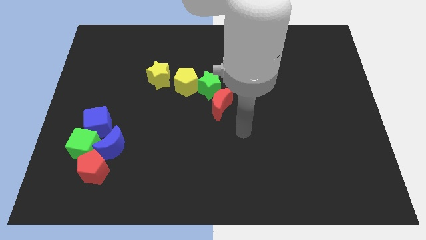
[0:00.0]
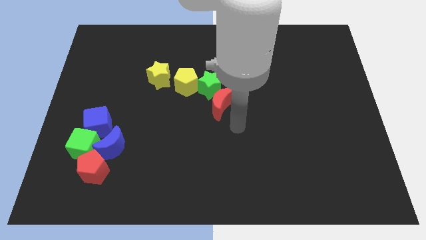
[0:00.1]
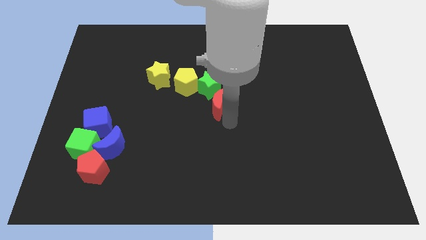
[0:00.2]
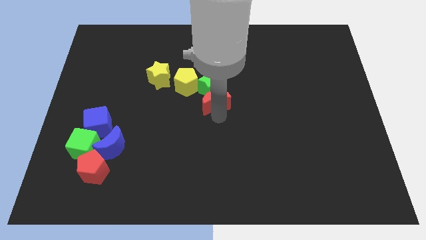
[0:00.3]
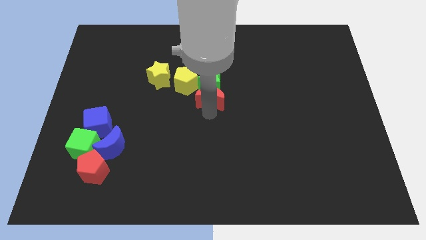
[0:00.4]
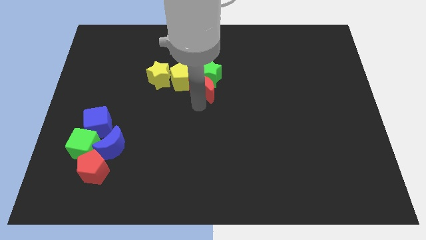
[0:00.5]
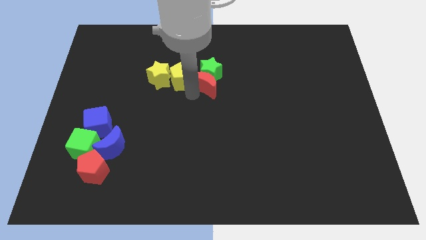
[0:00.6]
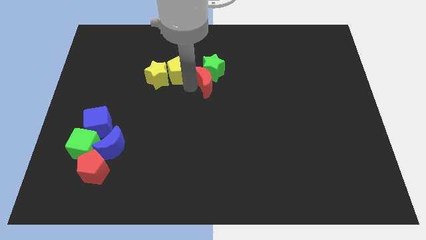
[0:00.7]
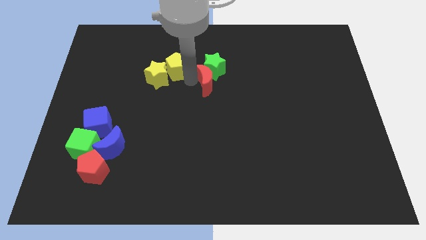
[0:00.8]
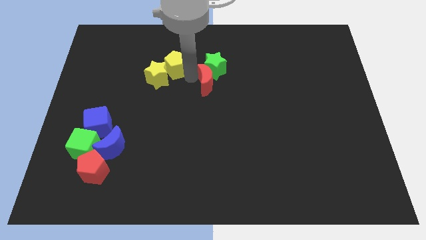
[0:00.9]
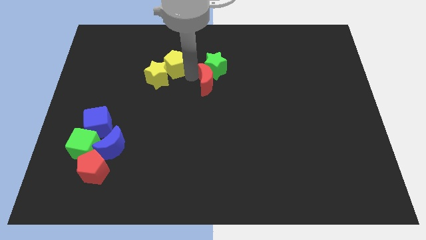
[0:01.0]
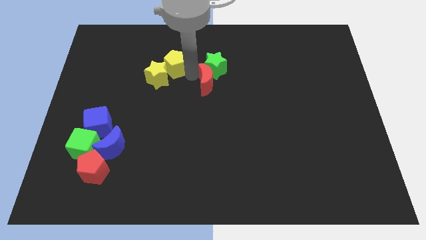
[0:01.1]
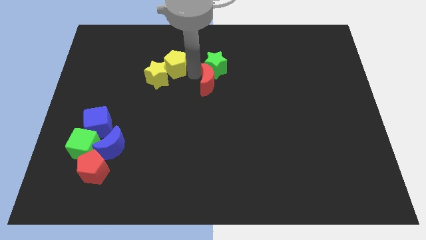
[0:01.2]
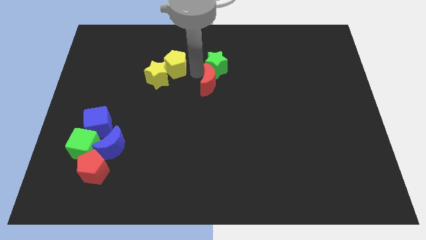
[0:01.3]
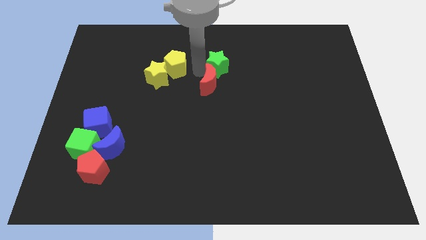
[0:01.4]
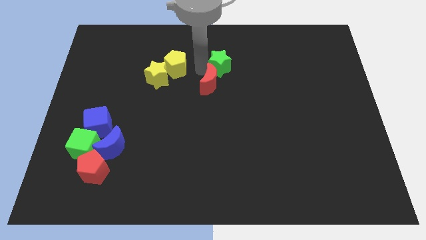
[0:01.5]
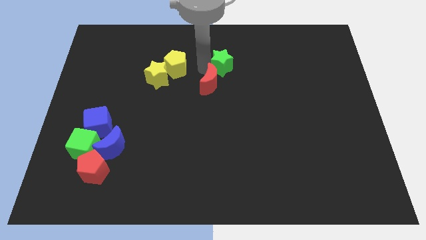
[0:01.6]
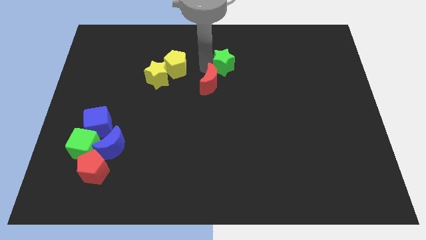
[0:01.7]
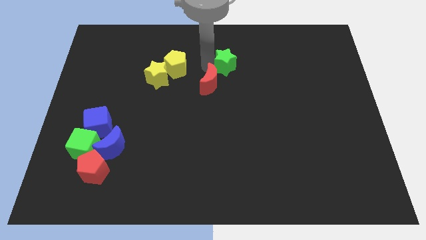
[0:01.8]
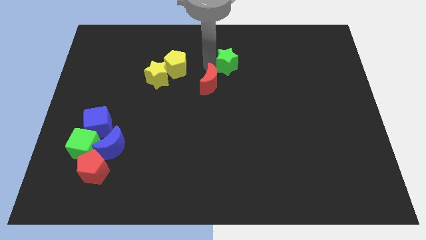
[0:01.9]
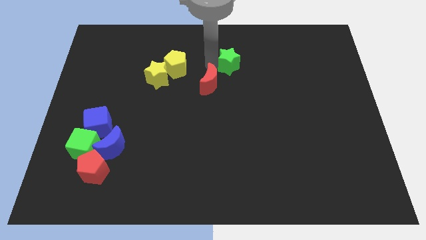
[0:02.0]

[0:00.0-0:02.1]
pull the green star apart from the yellow pentagon and red moon

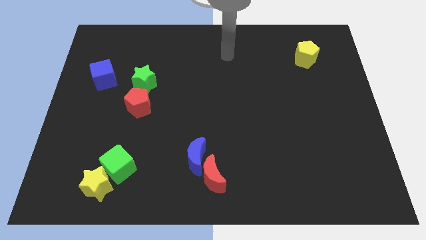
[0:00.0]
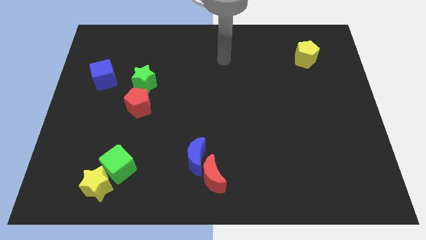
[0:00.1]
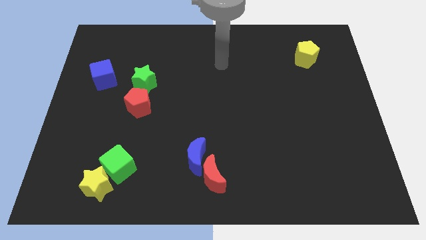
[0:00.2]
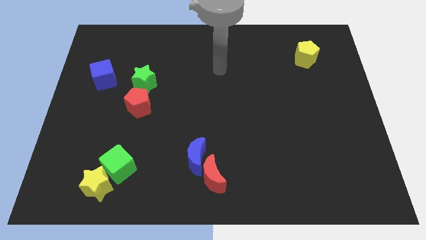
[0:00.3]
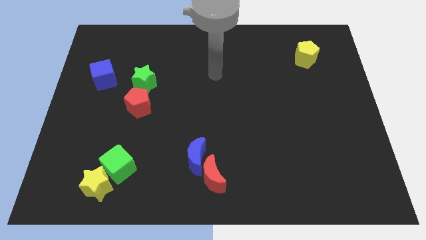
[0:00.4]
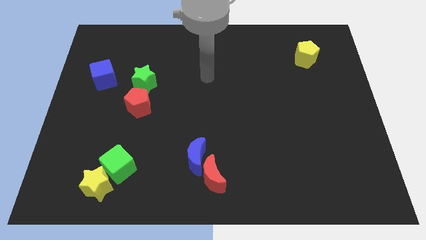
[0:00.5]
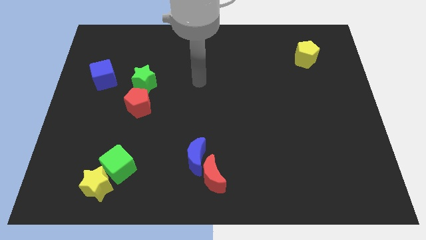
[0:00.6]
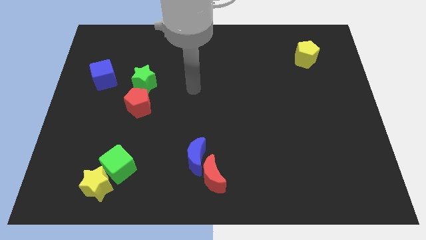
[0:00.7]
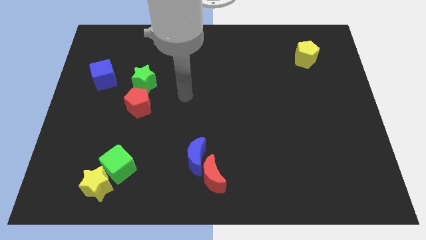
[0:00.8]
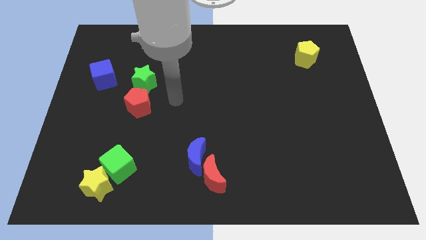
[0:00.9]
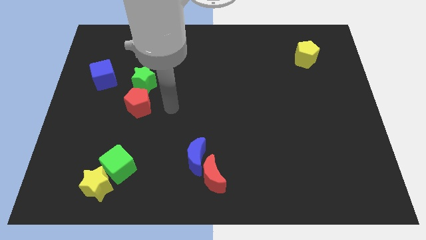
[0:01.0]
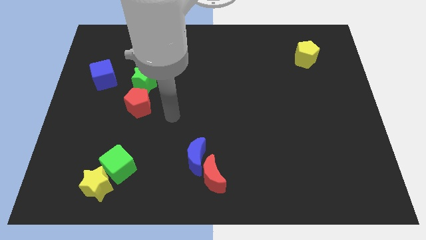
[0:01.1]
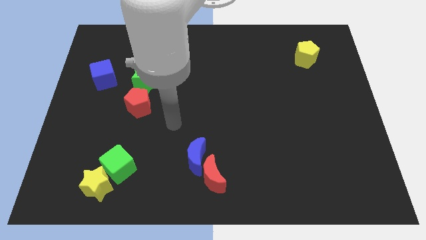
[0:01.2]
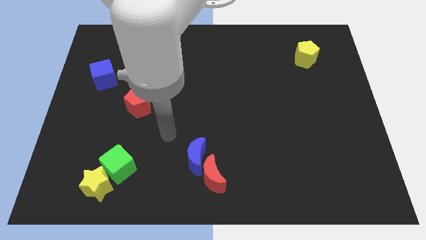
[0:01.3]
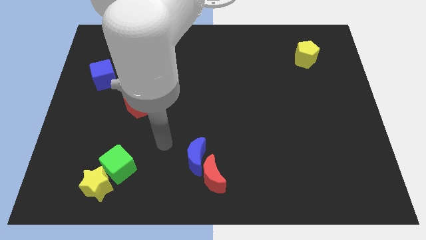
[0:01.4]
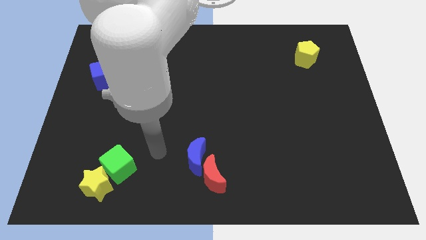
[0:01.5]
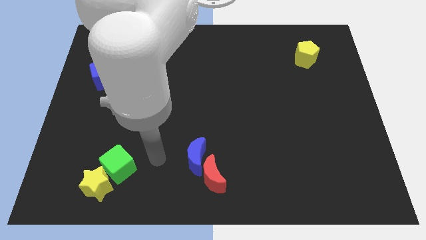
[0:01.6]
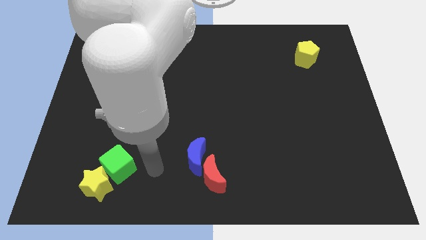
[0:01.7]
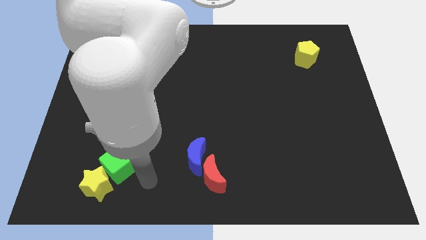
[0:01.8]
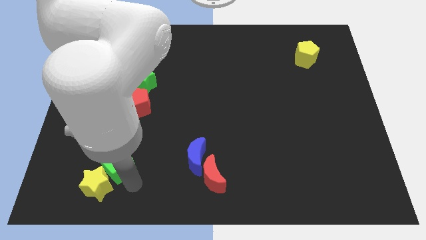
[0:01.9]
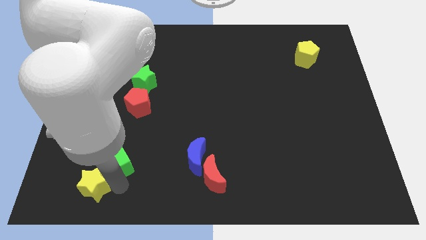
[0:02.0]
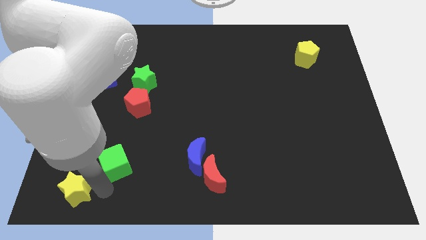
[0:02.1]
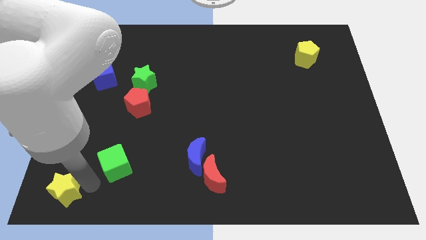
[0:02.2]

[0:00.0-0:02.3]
separate the green cube from the yellow star

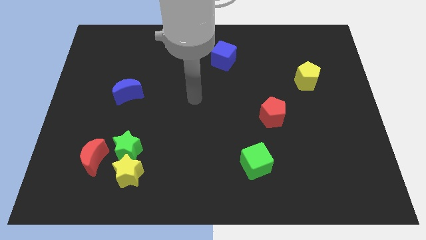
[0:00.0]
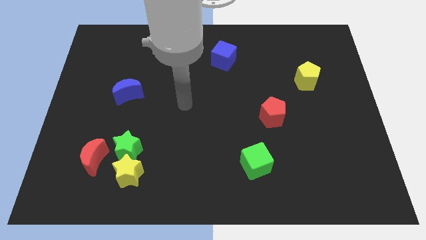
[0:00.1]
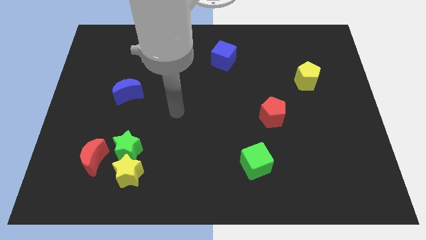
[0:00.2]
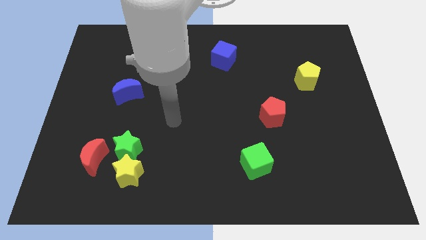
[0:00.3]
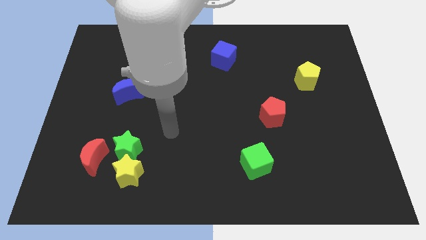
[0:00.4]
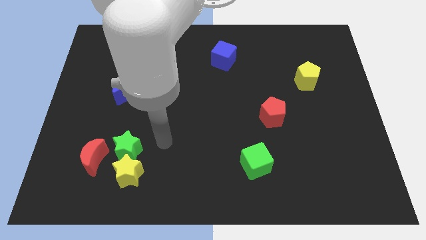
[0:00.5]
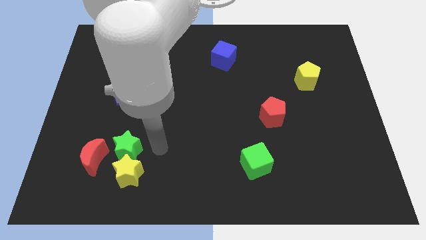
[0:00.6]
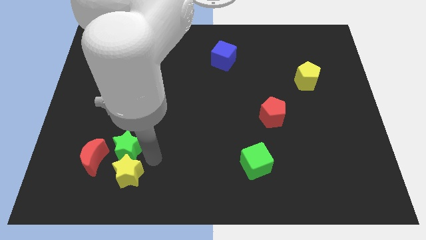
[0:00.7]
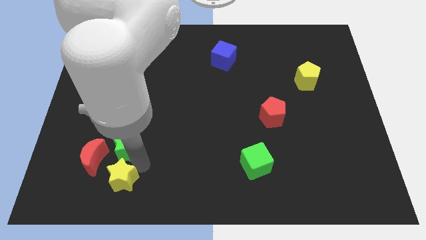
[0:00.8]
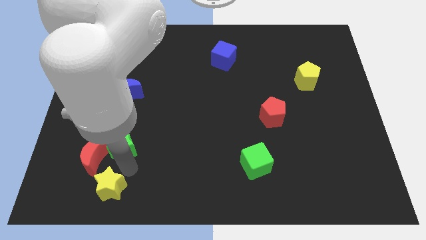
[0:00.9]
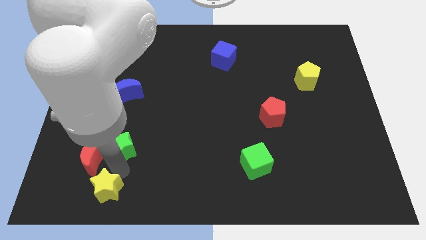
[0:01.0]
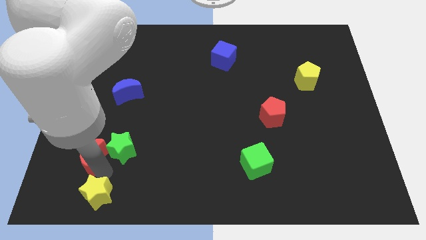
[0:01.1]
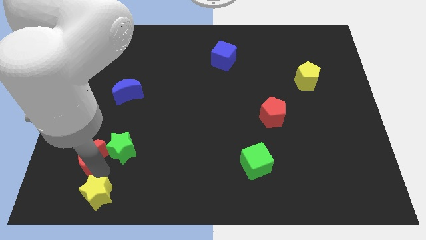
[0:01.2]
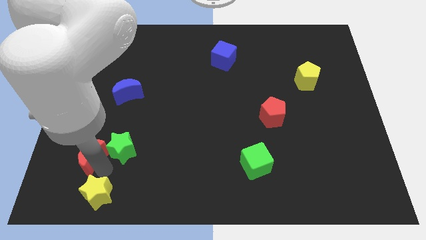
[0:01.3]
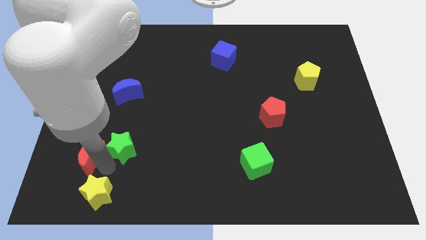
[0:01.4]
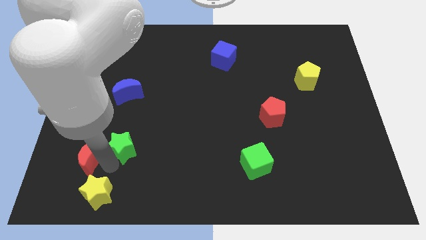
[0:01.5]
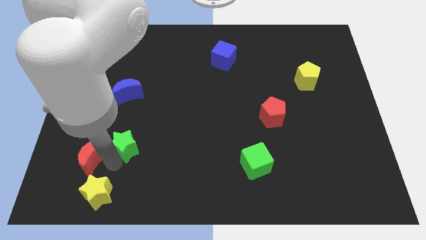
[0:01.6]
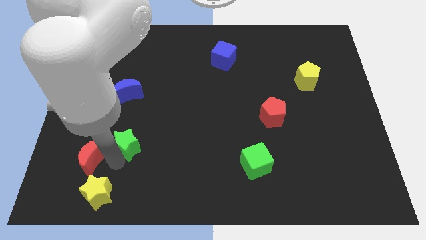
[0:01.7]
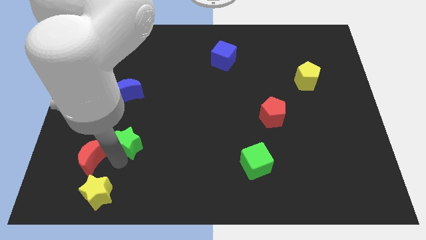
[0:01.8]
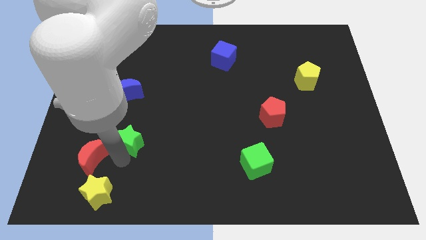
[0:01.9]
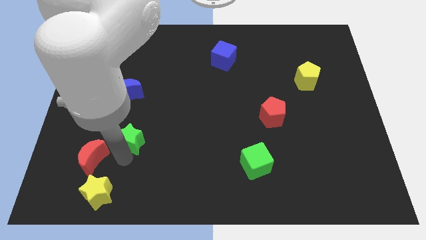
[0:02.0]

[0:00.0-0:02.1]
move the green star away from the yellow star and red moon

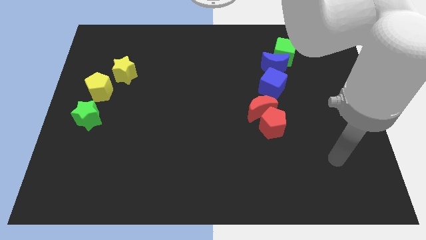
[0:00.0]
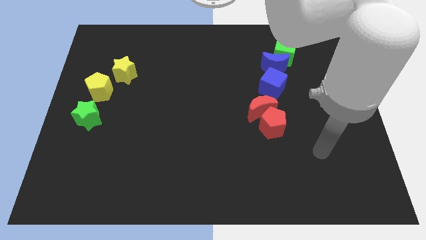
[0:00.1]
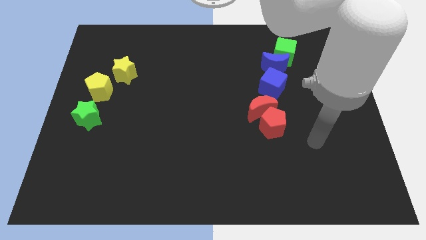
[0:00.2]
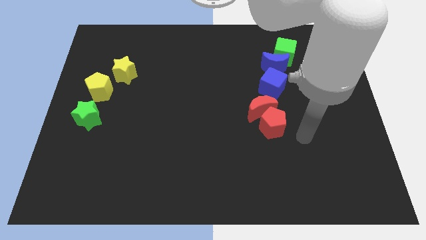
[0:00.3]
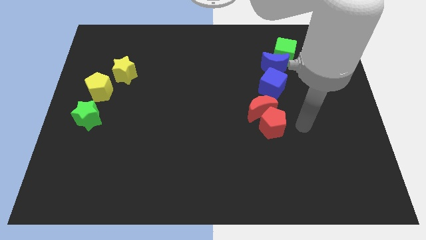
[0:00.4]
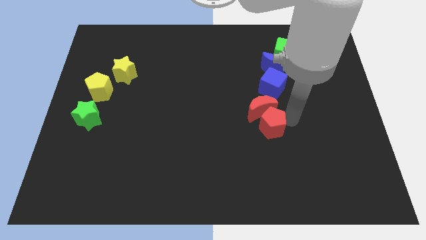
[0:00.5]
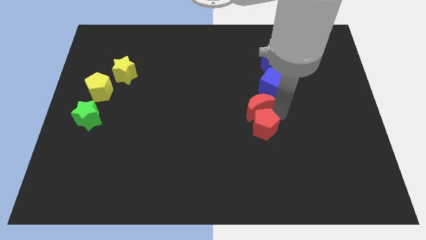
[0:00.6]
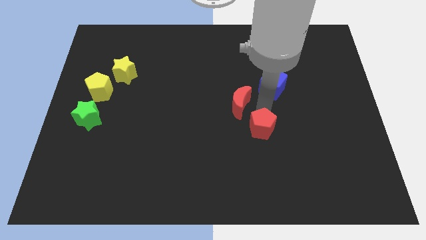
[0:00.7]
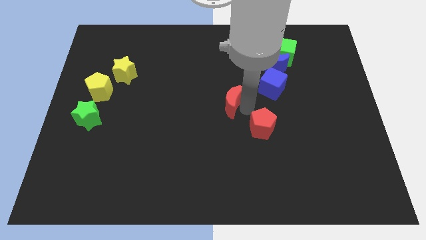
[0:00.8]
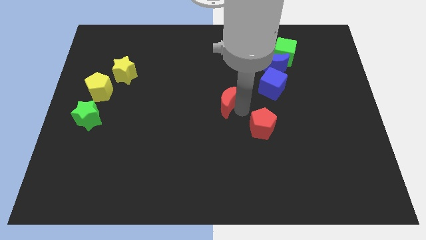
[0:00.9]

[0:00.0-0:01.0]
separate the red pentagon from the red moon

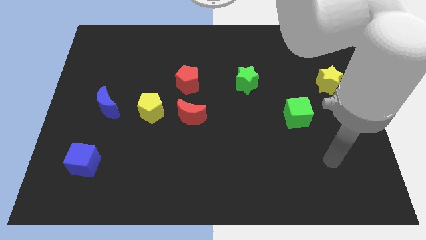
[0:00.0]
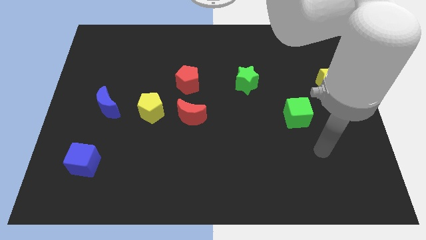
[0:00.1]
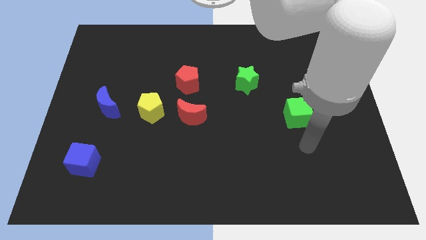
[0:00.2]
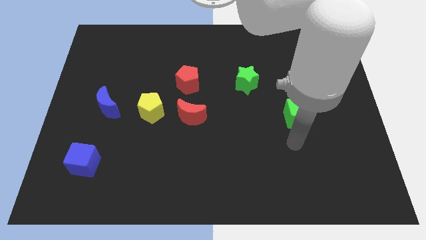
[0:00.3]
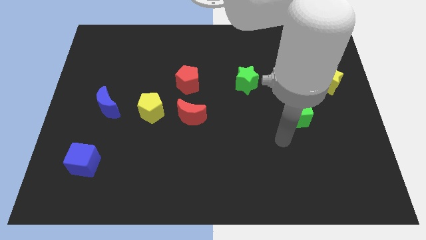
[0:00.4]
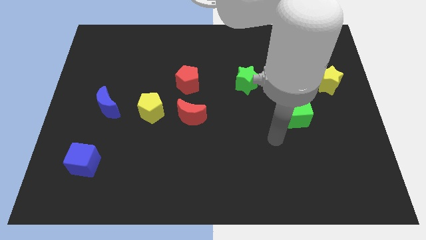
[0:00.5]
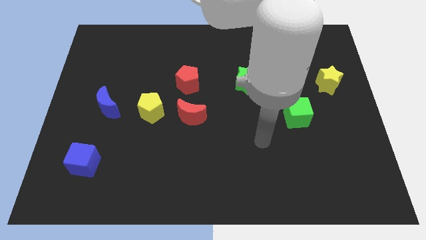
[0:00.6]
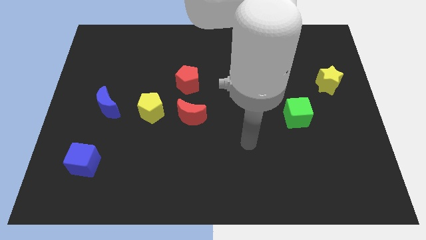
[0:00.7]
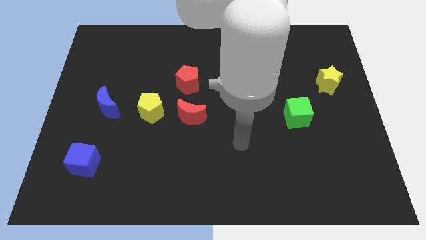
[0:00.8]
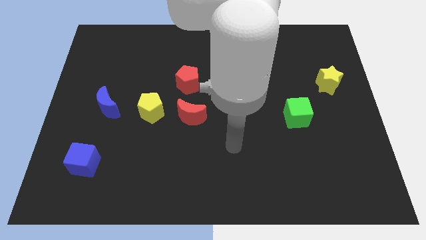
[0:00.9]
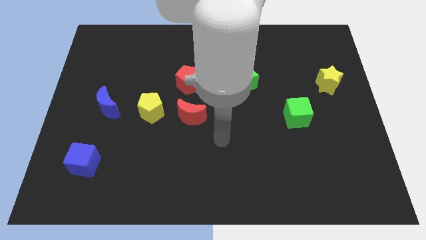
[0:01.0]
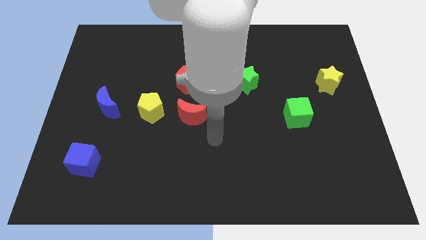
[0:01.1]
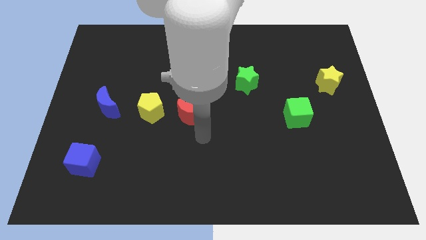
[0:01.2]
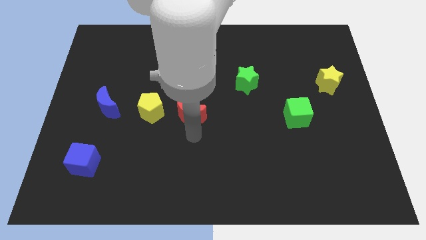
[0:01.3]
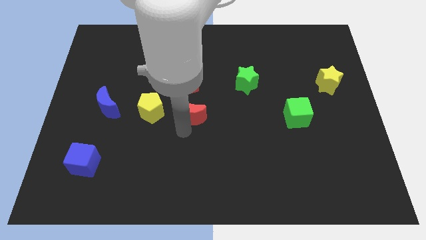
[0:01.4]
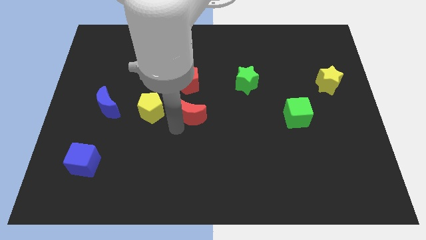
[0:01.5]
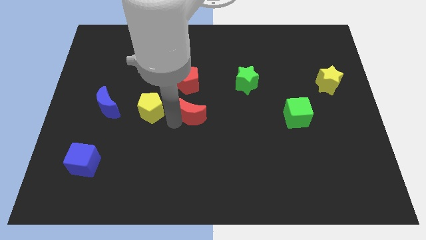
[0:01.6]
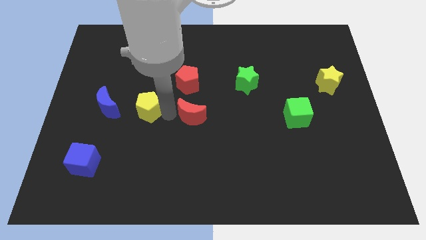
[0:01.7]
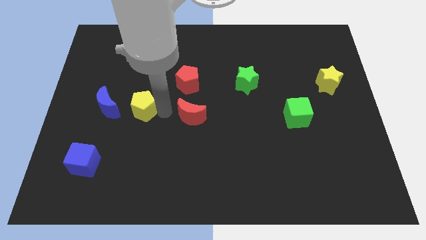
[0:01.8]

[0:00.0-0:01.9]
separate the red moon from the yellow pentagon
